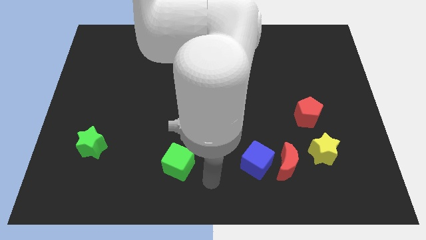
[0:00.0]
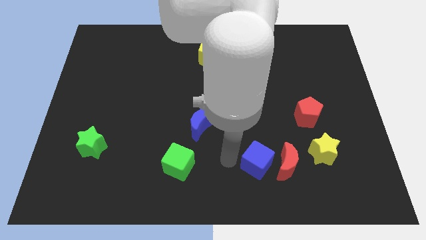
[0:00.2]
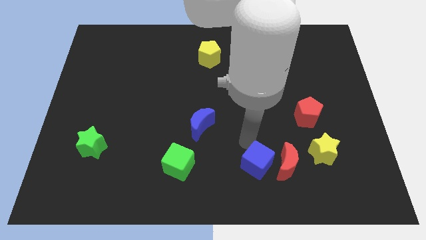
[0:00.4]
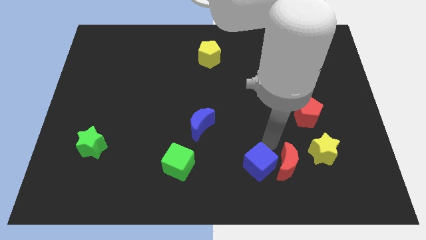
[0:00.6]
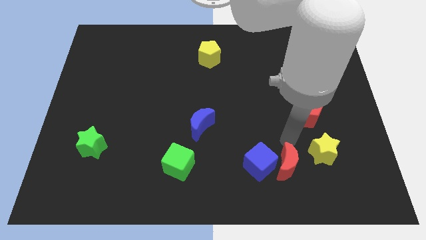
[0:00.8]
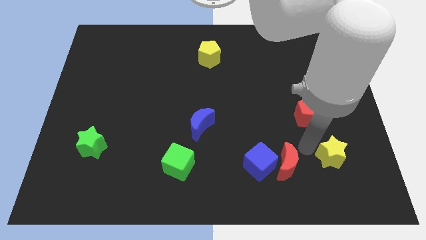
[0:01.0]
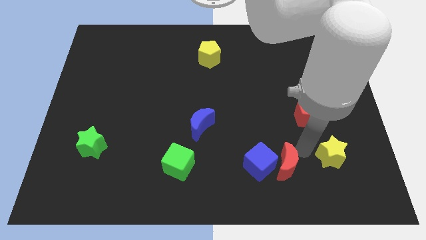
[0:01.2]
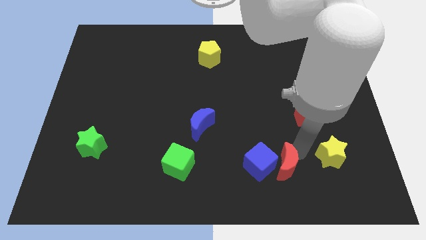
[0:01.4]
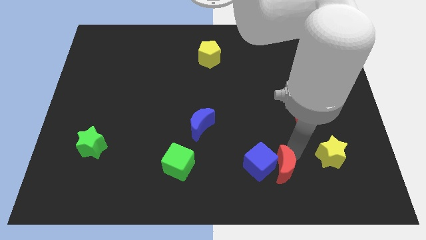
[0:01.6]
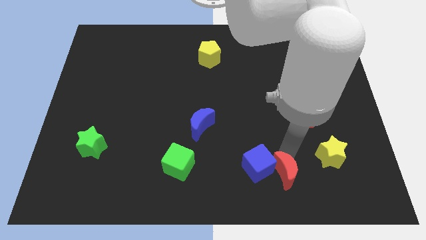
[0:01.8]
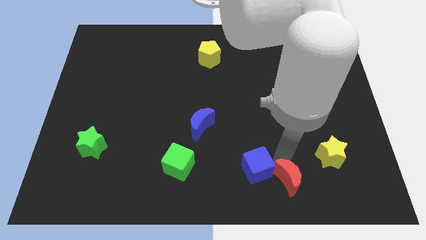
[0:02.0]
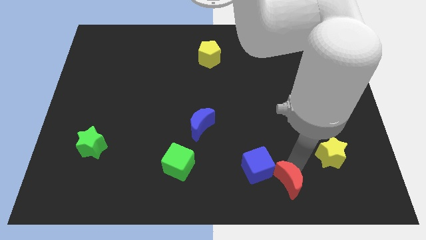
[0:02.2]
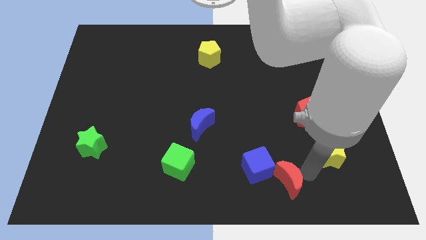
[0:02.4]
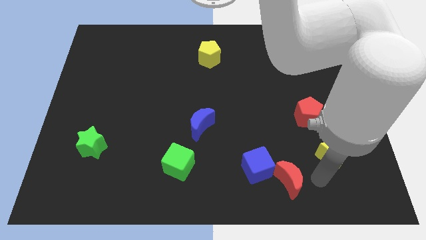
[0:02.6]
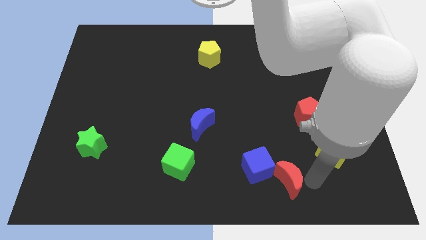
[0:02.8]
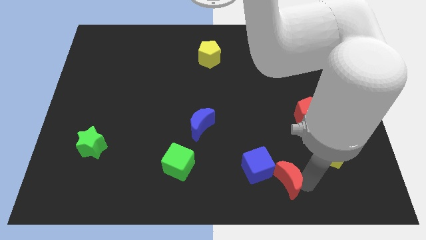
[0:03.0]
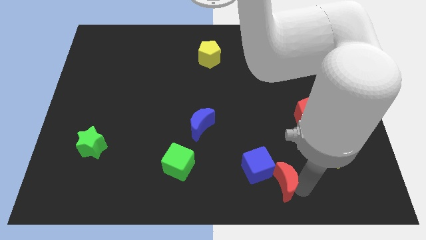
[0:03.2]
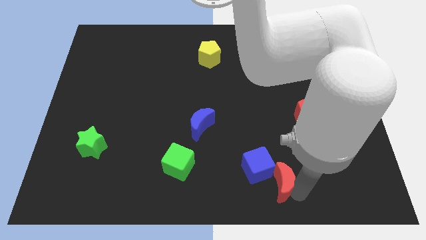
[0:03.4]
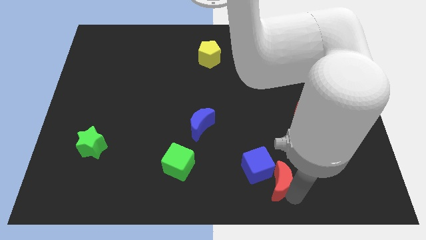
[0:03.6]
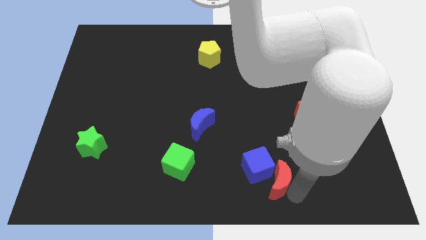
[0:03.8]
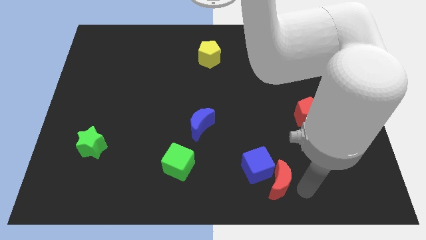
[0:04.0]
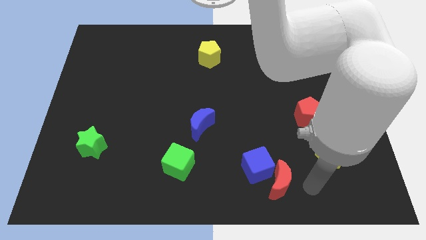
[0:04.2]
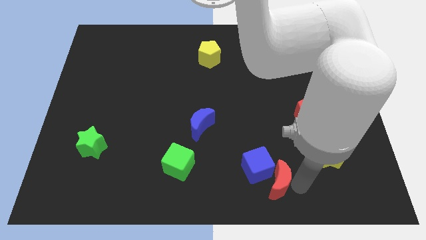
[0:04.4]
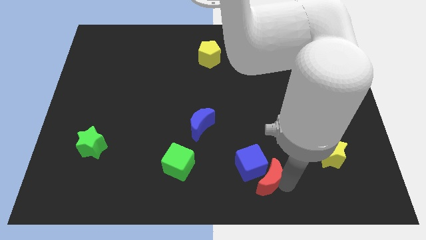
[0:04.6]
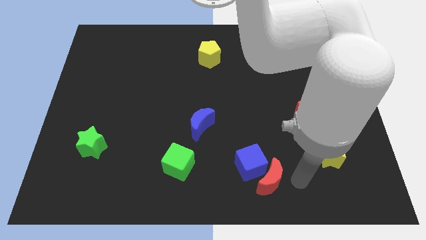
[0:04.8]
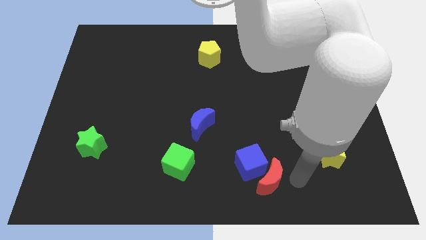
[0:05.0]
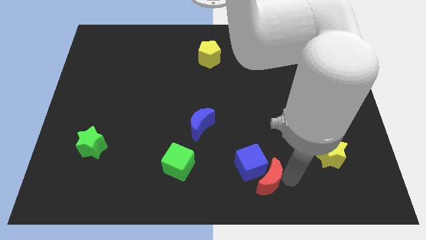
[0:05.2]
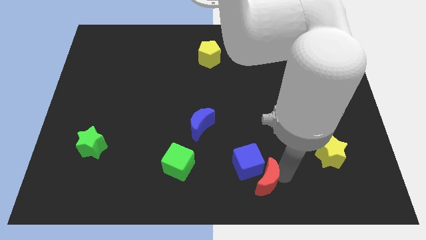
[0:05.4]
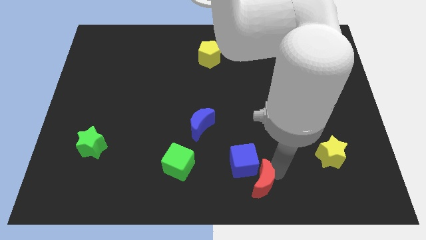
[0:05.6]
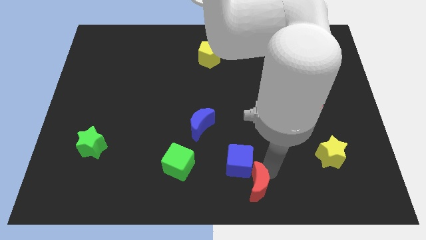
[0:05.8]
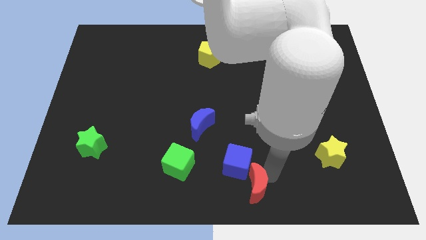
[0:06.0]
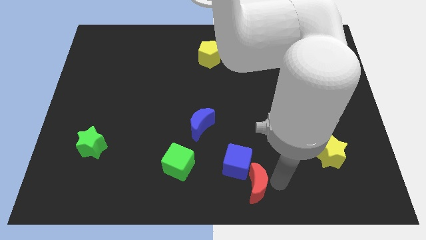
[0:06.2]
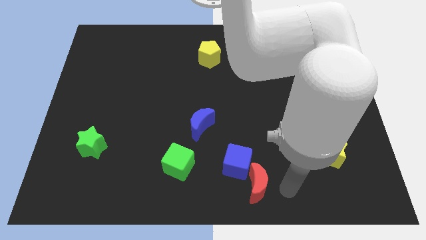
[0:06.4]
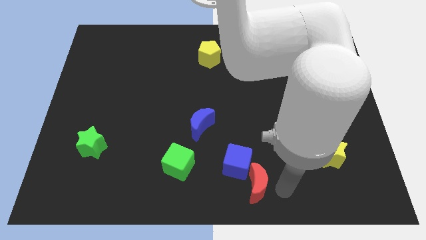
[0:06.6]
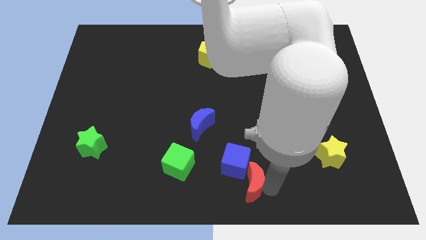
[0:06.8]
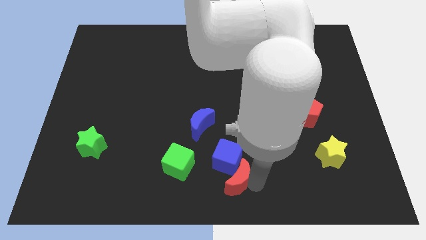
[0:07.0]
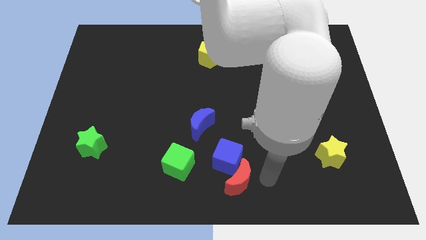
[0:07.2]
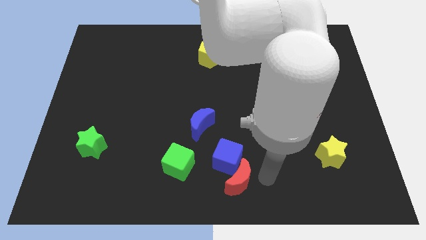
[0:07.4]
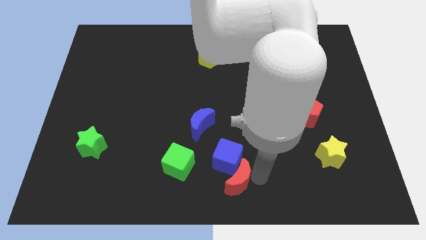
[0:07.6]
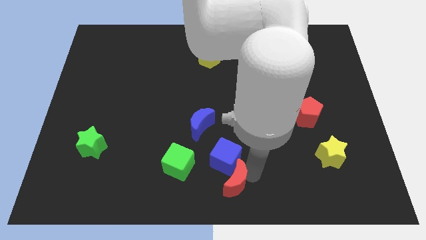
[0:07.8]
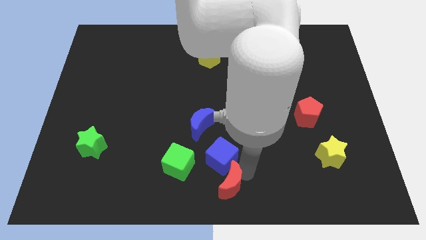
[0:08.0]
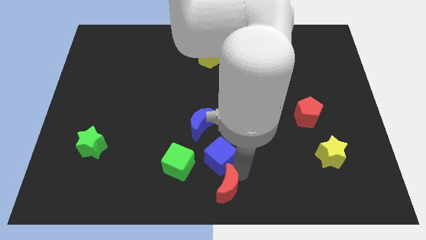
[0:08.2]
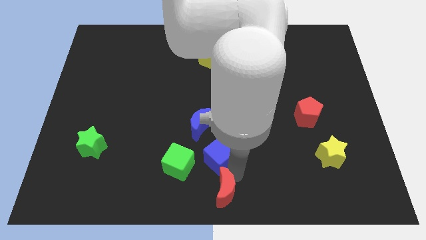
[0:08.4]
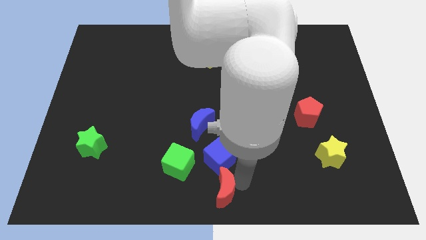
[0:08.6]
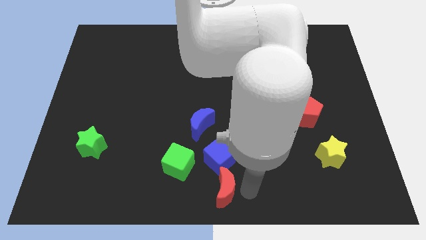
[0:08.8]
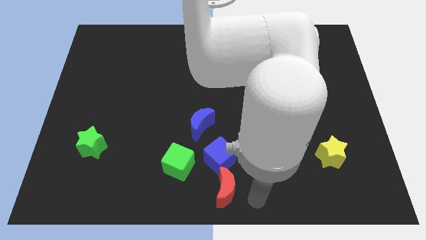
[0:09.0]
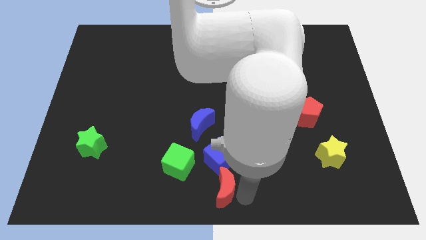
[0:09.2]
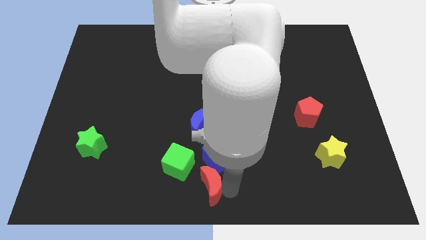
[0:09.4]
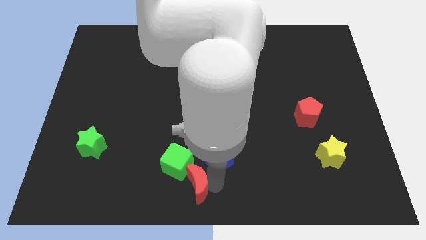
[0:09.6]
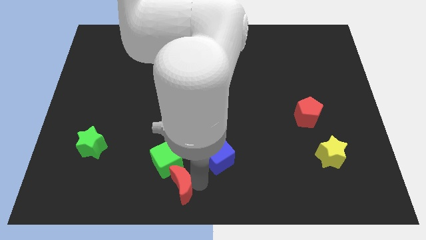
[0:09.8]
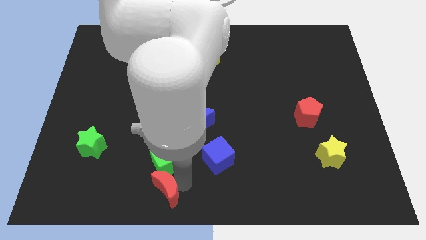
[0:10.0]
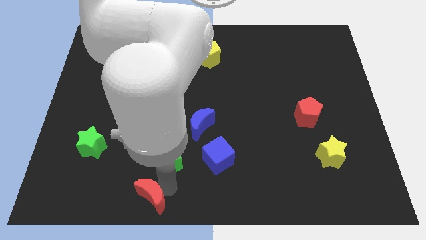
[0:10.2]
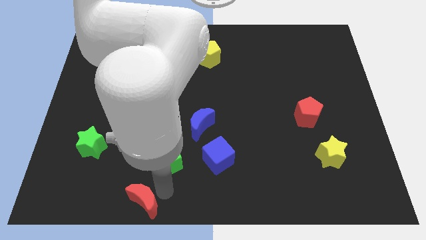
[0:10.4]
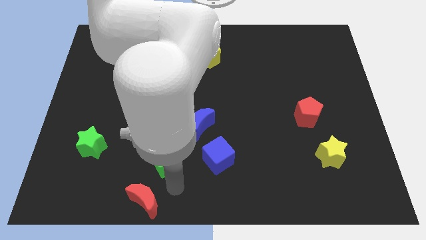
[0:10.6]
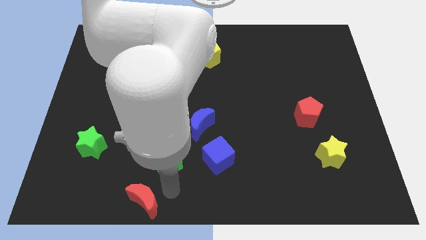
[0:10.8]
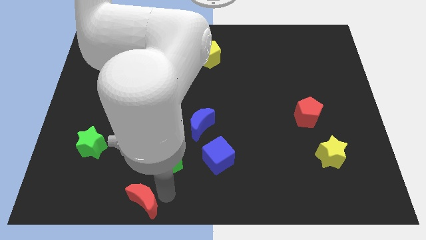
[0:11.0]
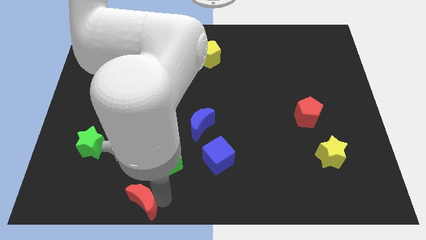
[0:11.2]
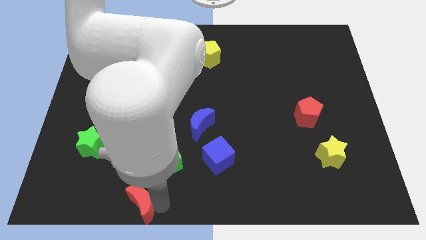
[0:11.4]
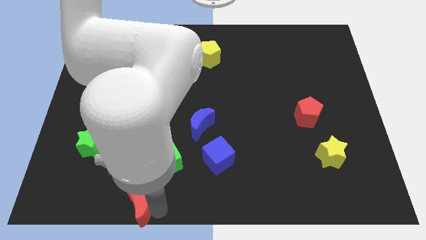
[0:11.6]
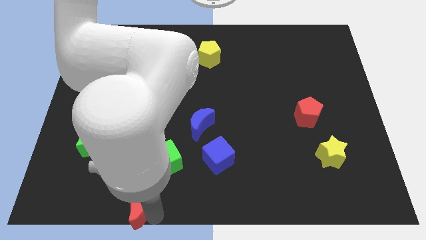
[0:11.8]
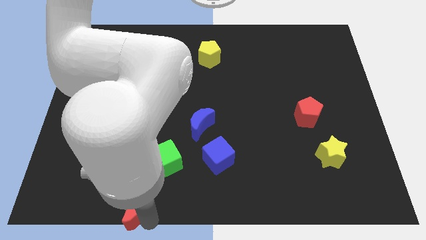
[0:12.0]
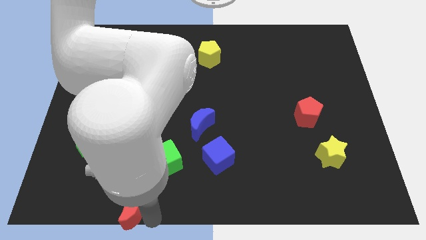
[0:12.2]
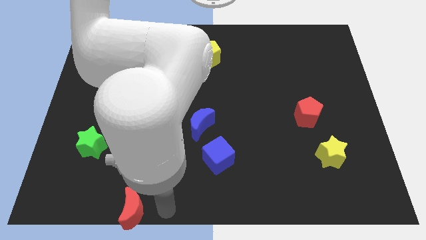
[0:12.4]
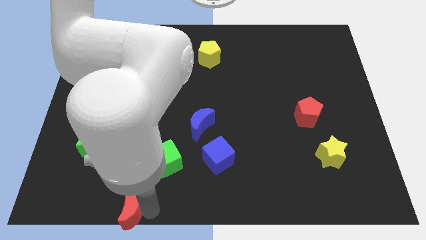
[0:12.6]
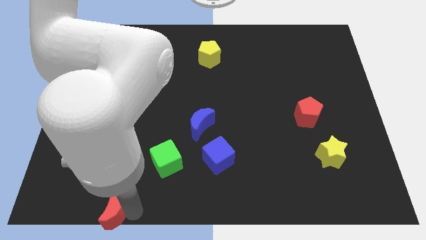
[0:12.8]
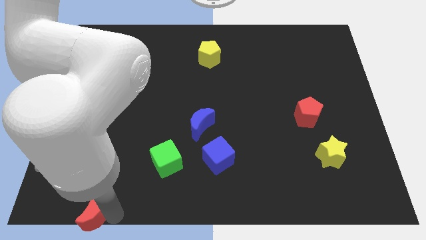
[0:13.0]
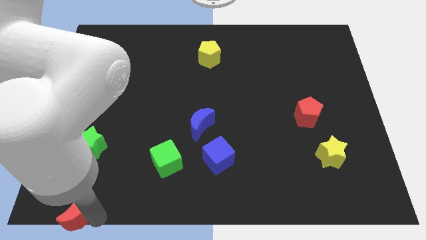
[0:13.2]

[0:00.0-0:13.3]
slide the red moon to the bottom left corner
